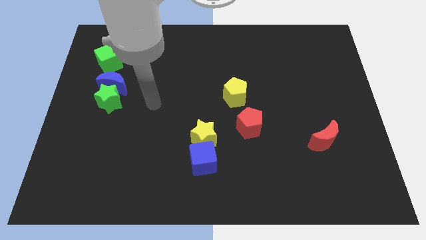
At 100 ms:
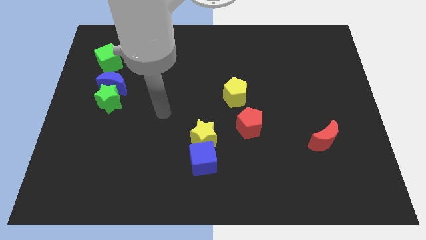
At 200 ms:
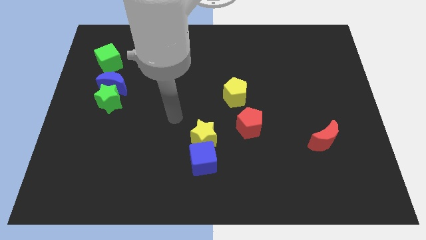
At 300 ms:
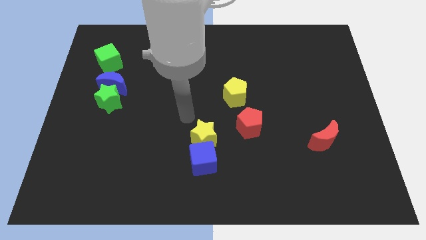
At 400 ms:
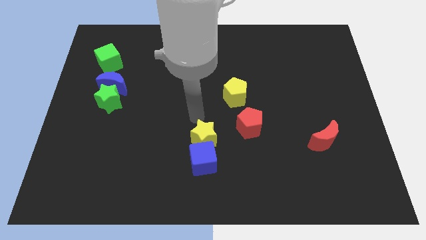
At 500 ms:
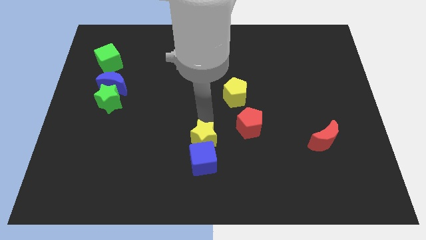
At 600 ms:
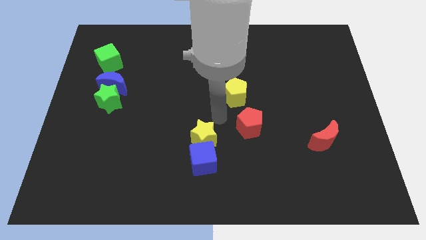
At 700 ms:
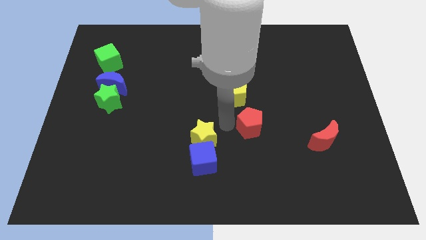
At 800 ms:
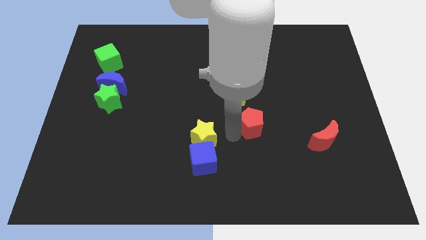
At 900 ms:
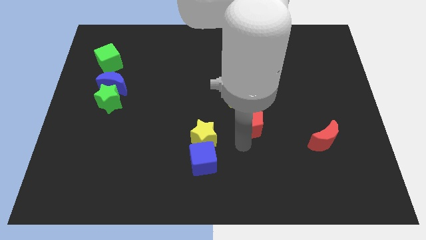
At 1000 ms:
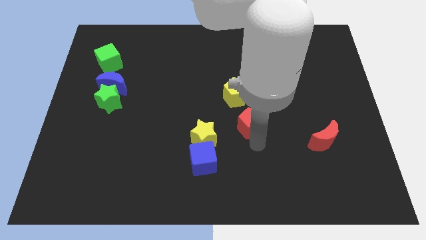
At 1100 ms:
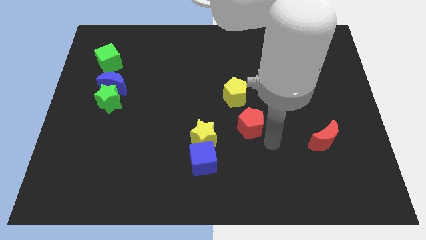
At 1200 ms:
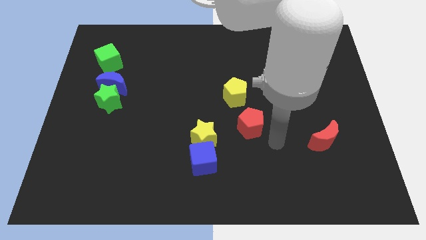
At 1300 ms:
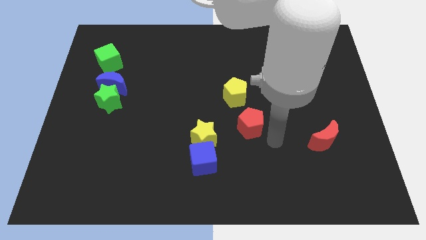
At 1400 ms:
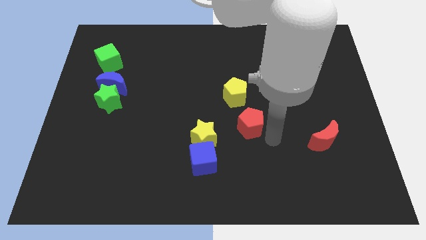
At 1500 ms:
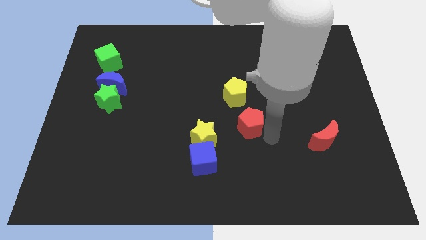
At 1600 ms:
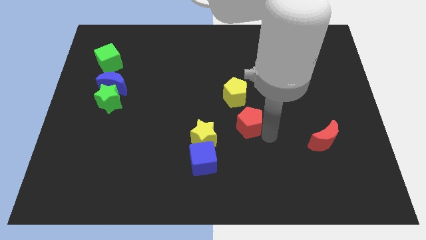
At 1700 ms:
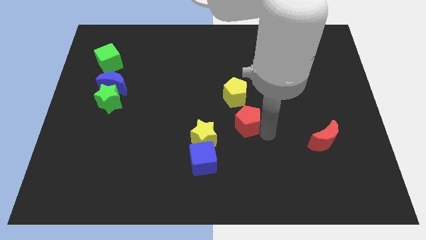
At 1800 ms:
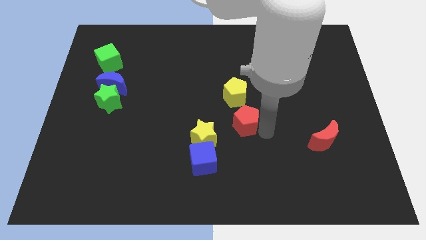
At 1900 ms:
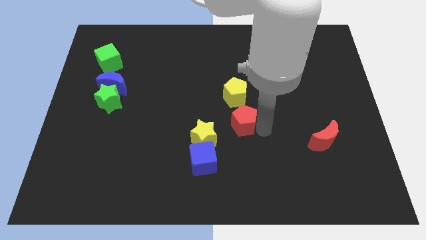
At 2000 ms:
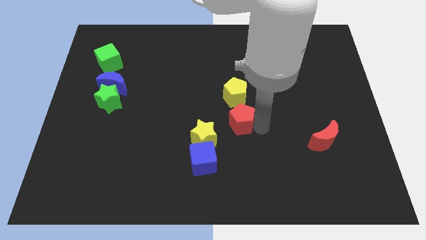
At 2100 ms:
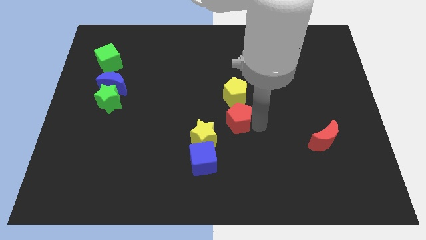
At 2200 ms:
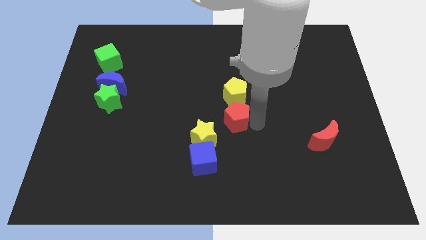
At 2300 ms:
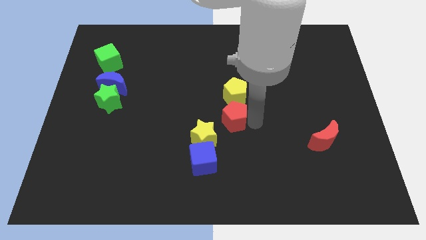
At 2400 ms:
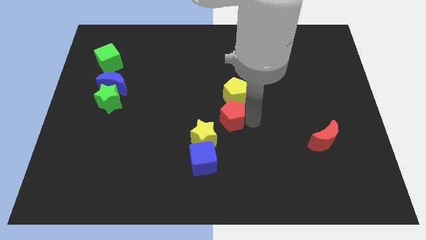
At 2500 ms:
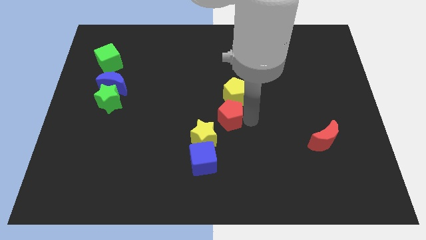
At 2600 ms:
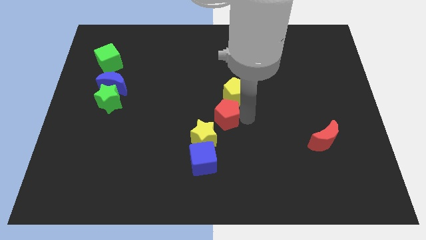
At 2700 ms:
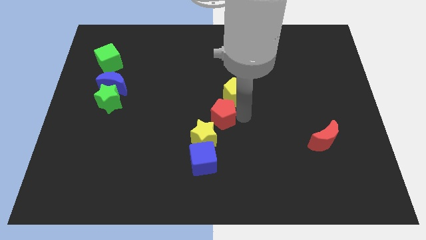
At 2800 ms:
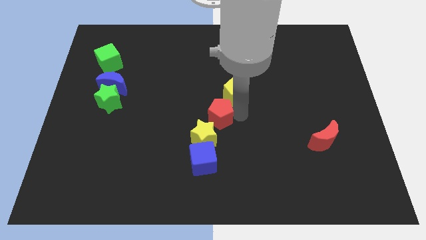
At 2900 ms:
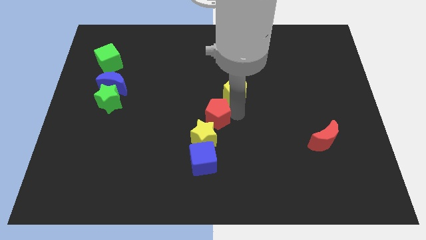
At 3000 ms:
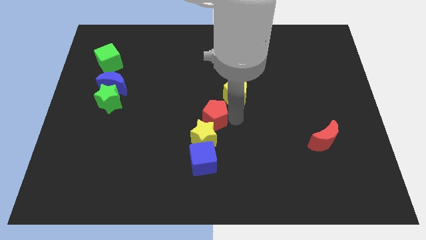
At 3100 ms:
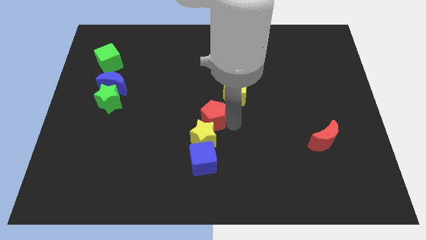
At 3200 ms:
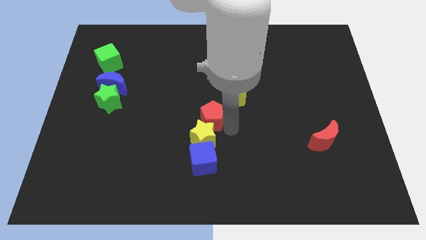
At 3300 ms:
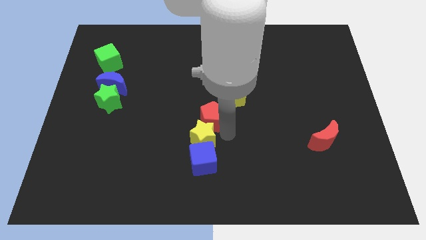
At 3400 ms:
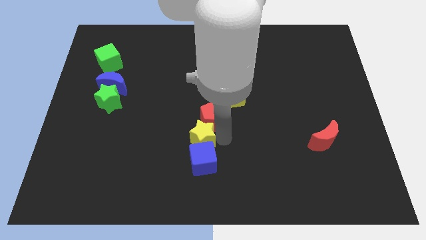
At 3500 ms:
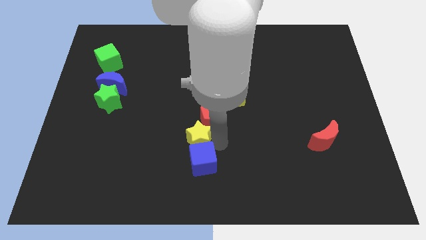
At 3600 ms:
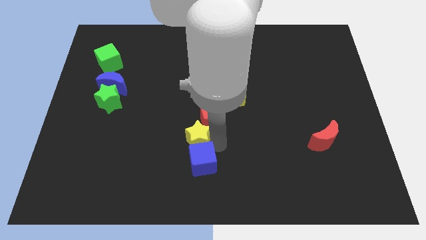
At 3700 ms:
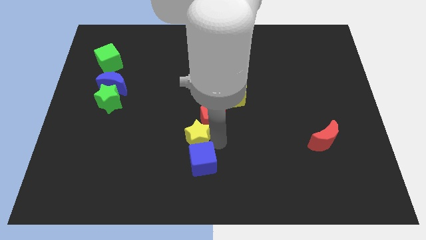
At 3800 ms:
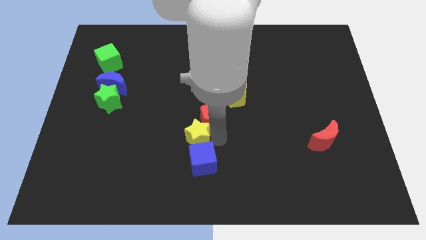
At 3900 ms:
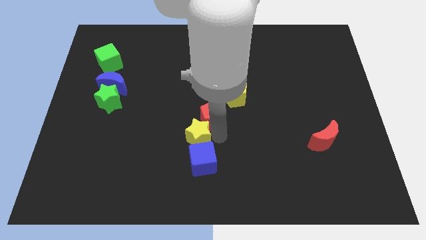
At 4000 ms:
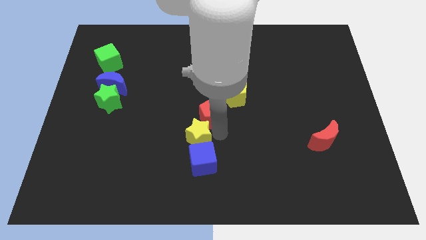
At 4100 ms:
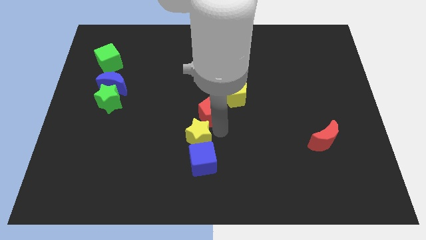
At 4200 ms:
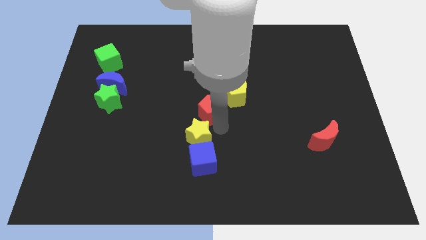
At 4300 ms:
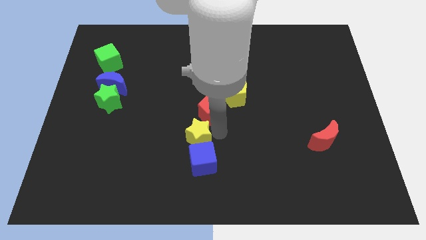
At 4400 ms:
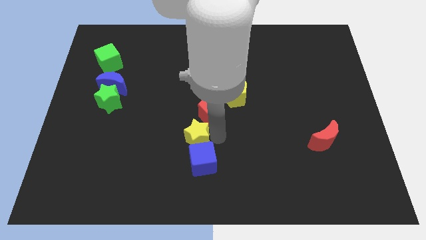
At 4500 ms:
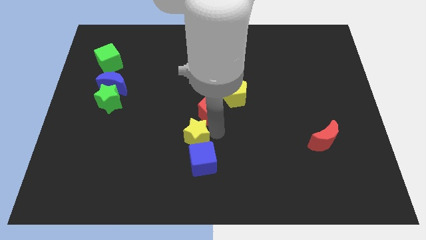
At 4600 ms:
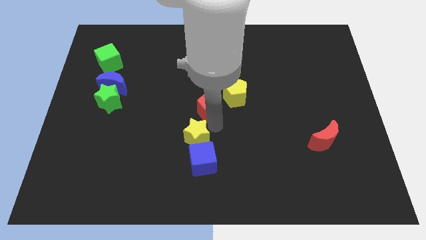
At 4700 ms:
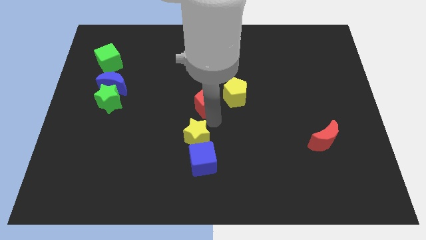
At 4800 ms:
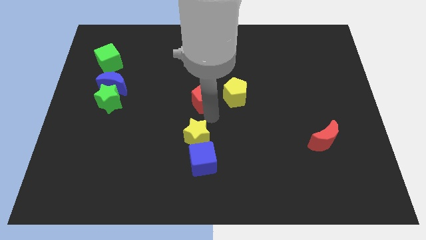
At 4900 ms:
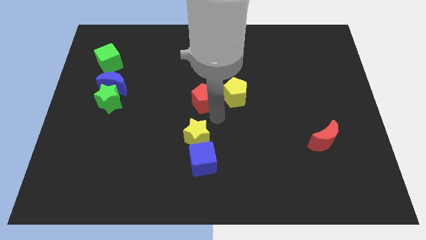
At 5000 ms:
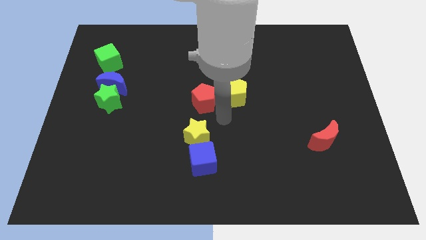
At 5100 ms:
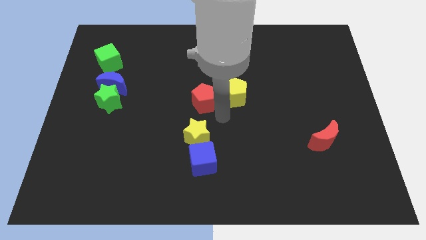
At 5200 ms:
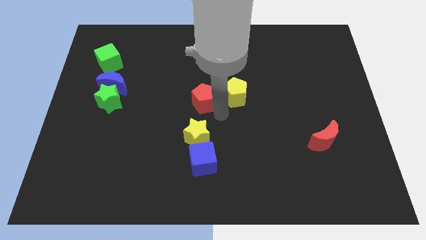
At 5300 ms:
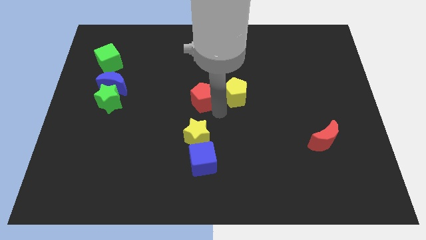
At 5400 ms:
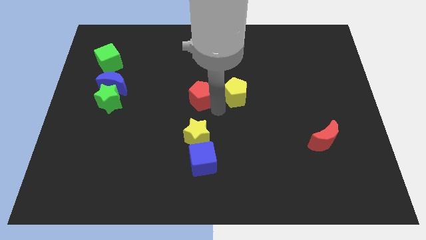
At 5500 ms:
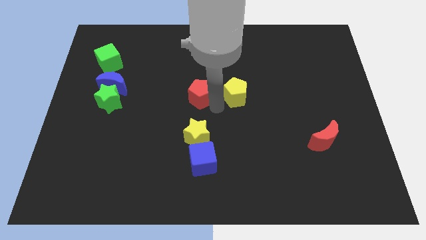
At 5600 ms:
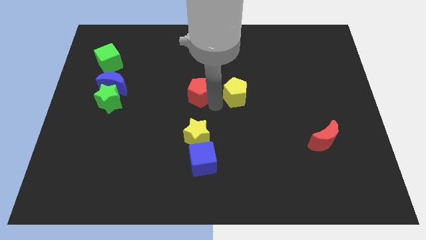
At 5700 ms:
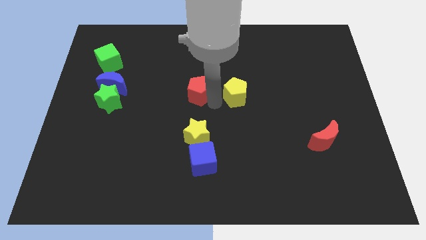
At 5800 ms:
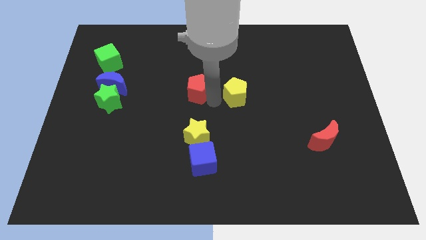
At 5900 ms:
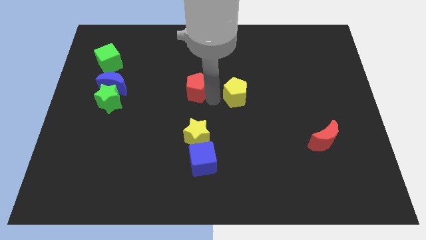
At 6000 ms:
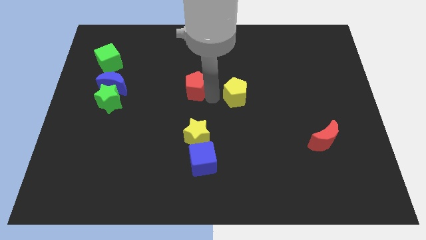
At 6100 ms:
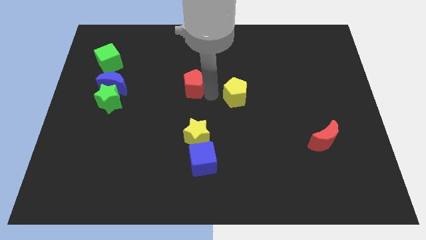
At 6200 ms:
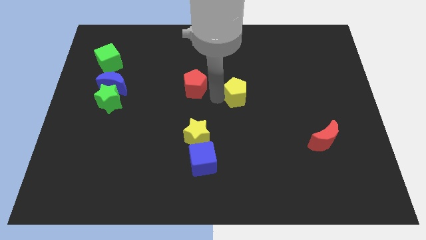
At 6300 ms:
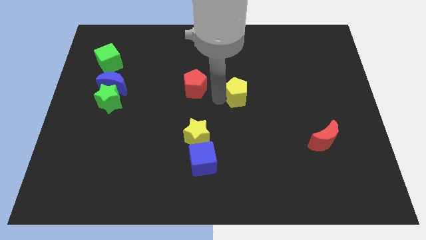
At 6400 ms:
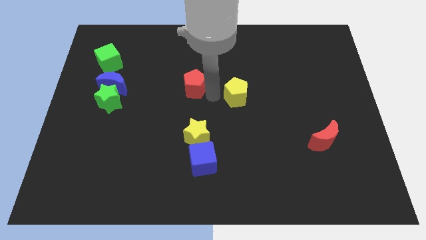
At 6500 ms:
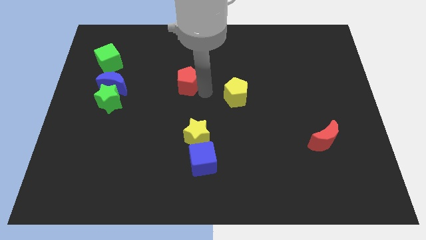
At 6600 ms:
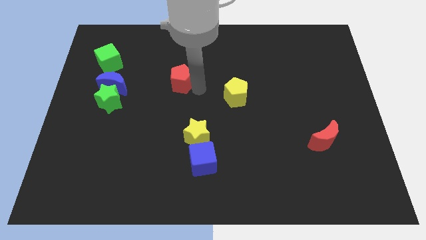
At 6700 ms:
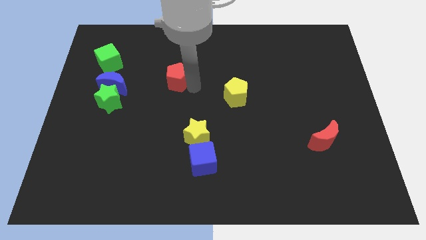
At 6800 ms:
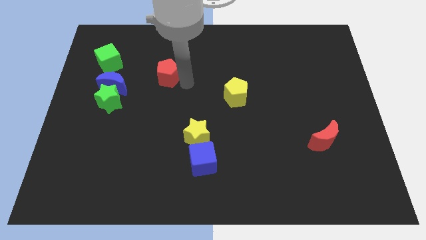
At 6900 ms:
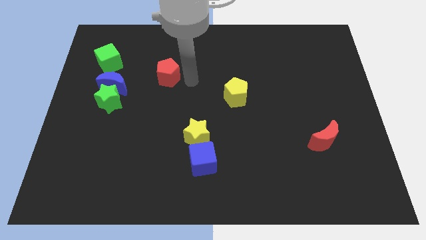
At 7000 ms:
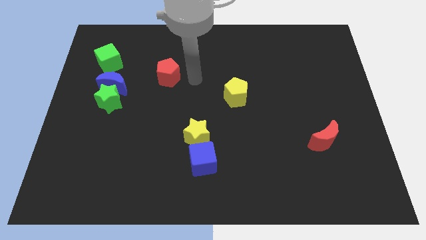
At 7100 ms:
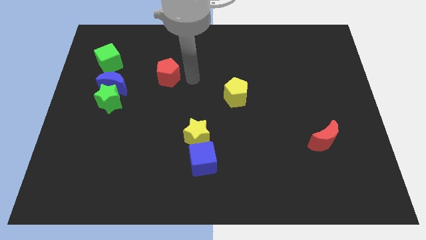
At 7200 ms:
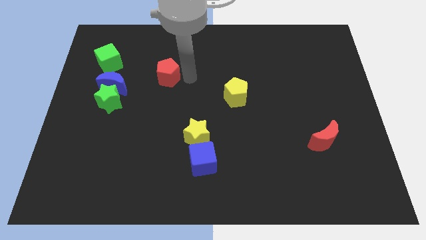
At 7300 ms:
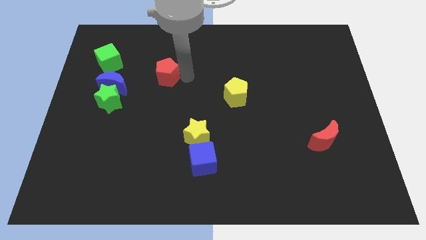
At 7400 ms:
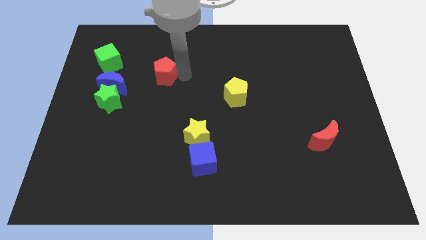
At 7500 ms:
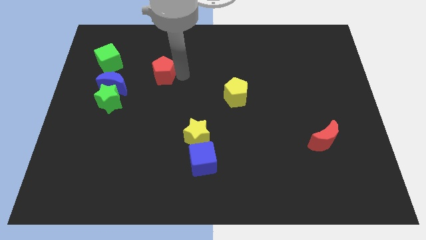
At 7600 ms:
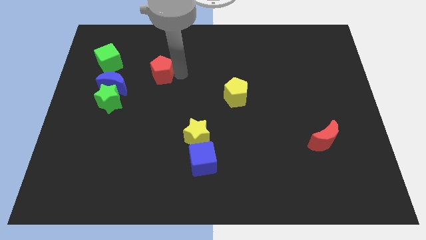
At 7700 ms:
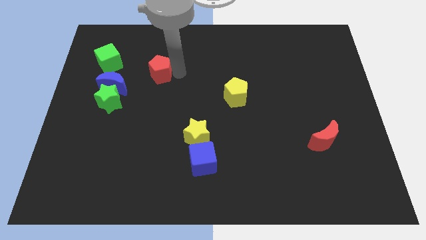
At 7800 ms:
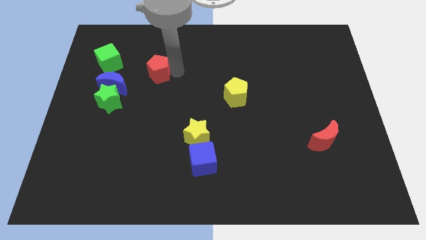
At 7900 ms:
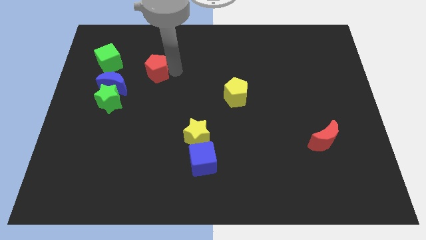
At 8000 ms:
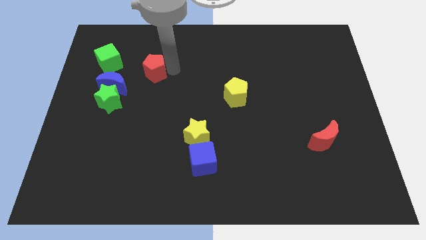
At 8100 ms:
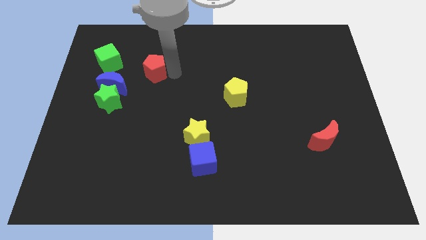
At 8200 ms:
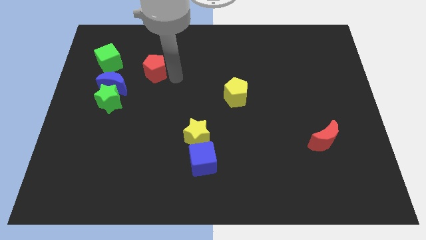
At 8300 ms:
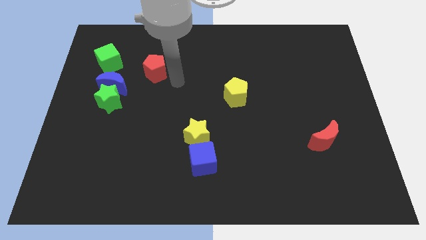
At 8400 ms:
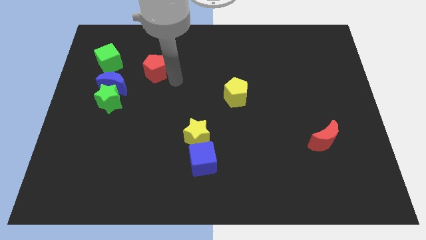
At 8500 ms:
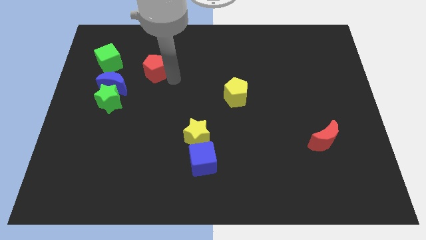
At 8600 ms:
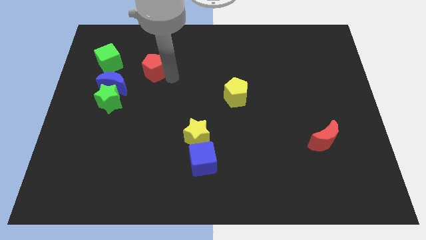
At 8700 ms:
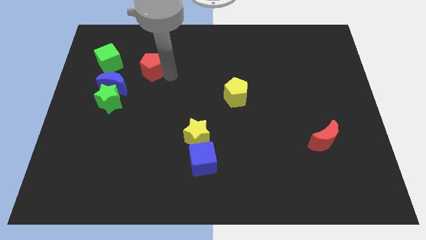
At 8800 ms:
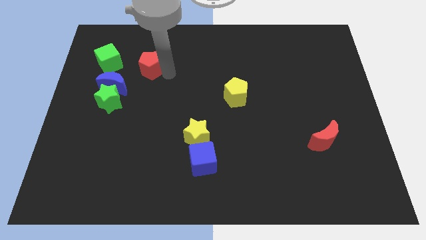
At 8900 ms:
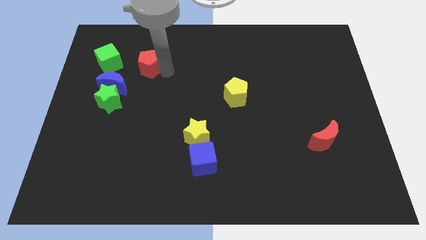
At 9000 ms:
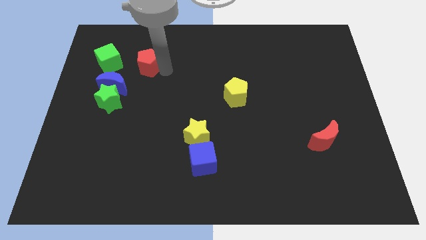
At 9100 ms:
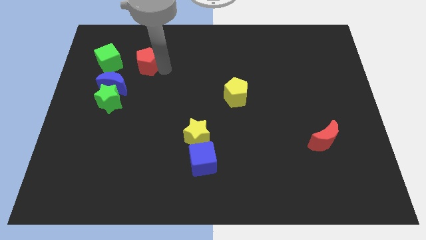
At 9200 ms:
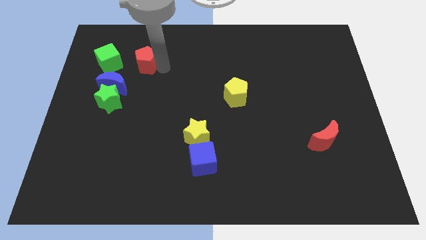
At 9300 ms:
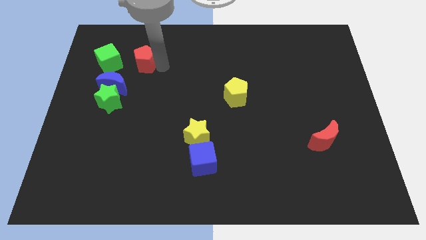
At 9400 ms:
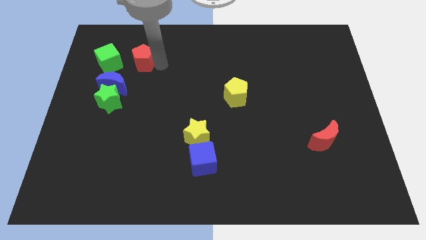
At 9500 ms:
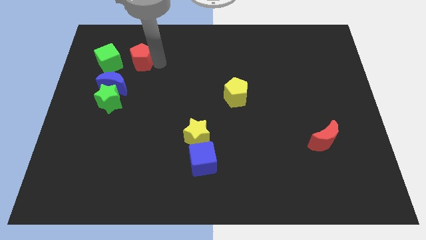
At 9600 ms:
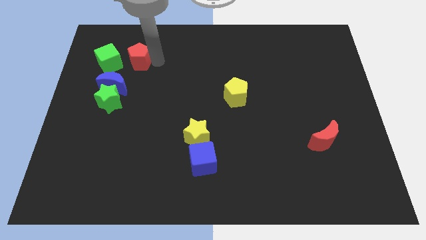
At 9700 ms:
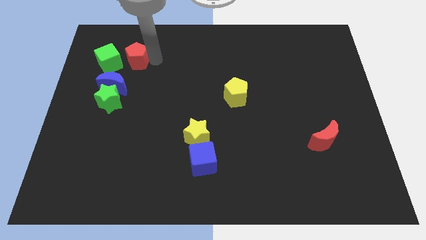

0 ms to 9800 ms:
push the red pentagon to the top side of the blue moon
